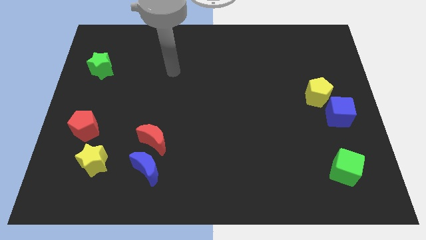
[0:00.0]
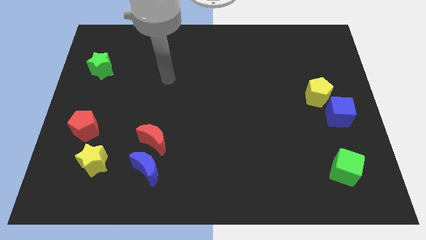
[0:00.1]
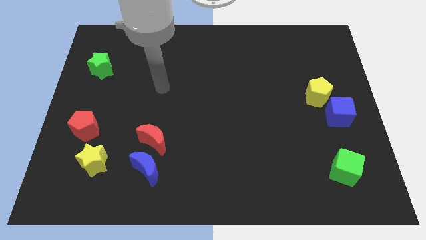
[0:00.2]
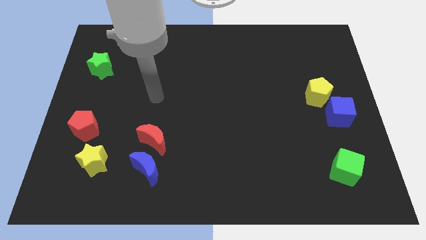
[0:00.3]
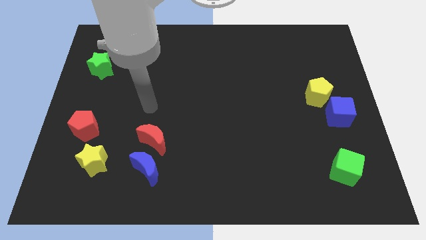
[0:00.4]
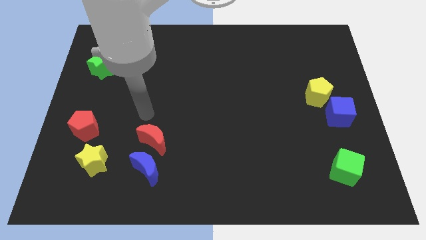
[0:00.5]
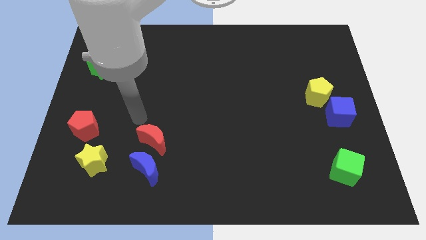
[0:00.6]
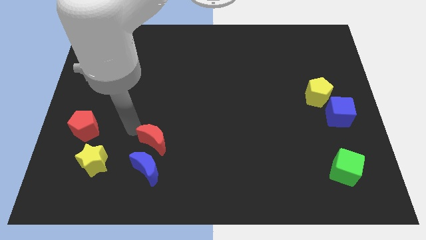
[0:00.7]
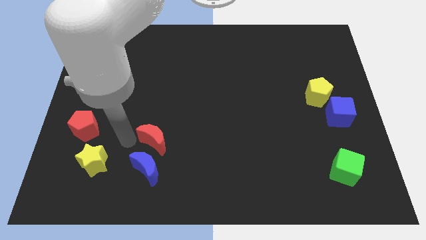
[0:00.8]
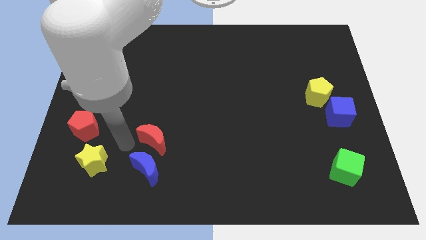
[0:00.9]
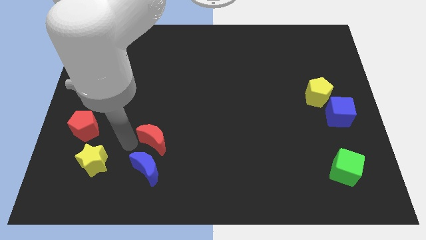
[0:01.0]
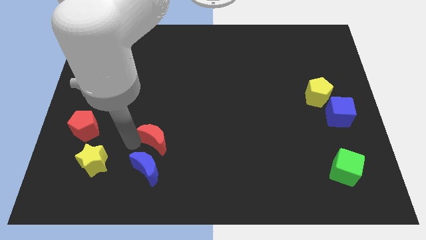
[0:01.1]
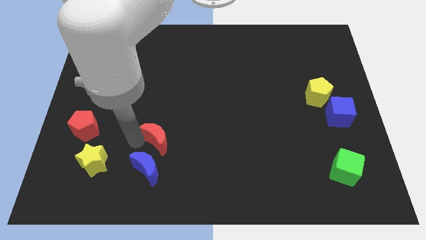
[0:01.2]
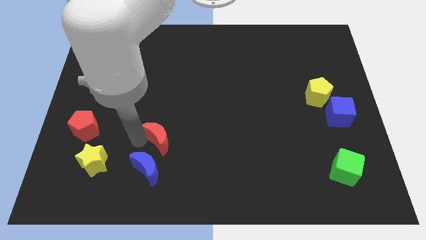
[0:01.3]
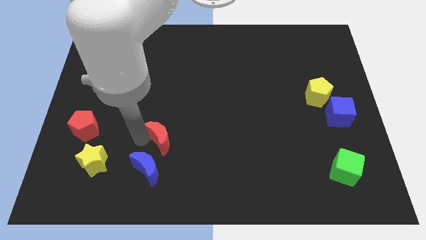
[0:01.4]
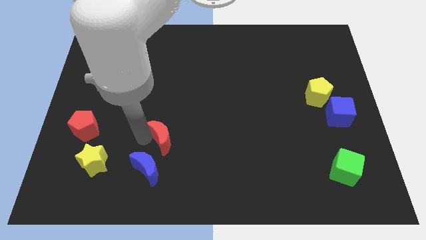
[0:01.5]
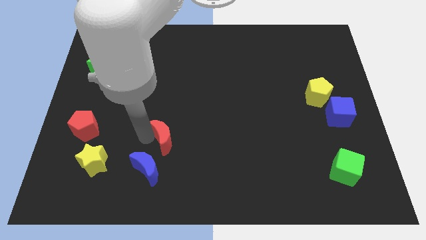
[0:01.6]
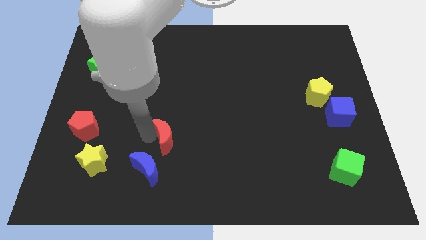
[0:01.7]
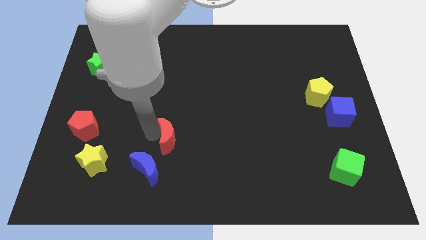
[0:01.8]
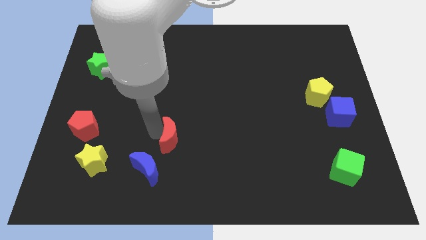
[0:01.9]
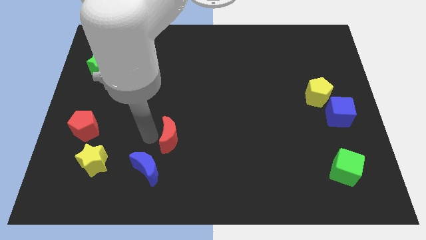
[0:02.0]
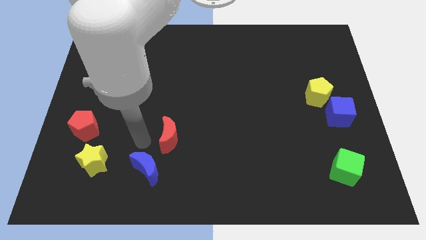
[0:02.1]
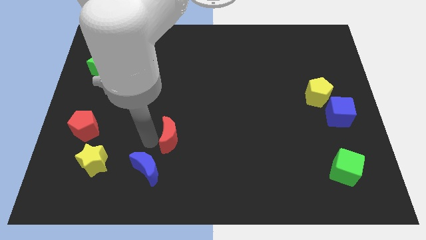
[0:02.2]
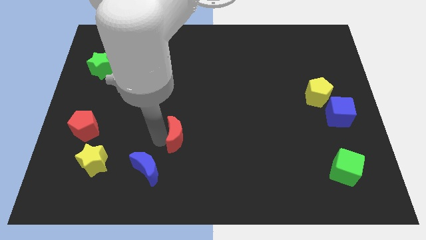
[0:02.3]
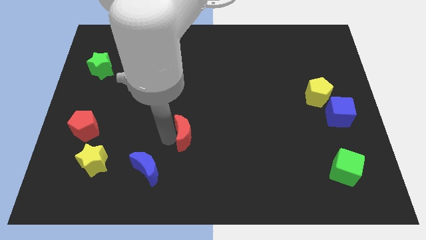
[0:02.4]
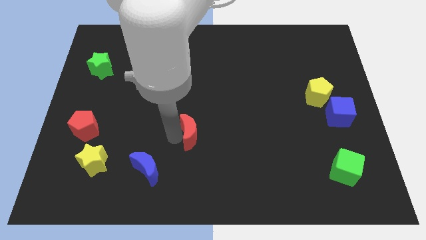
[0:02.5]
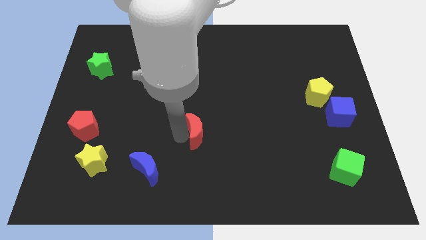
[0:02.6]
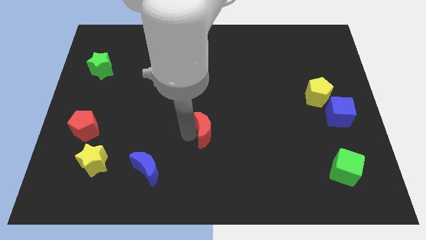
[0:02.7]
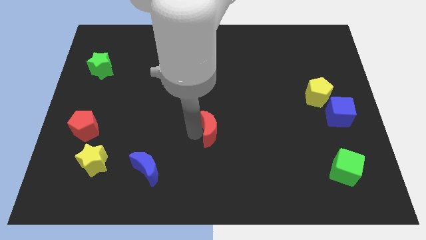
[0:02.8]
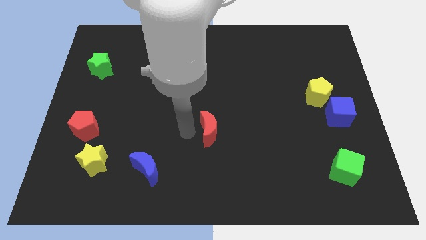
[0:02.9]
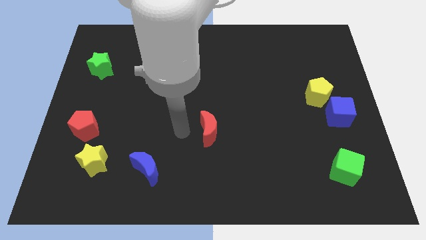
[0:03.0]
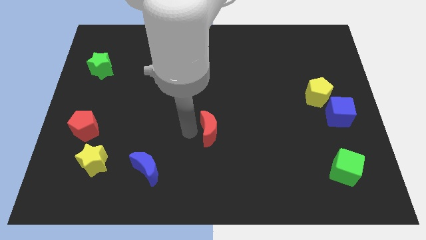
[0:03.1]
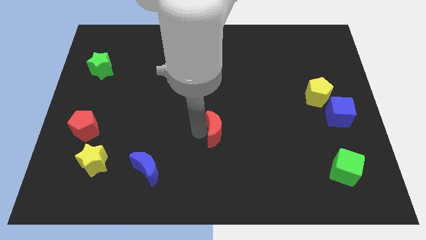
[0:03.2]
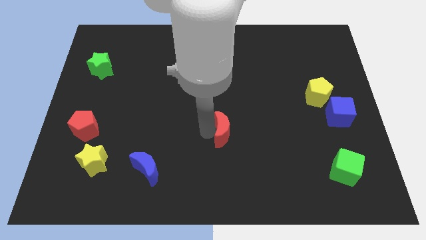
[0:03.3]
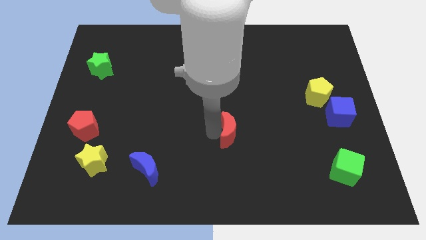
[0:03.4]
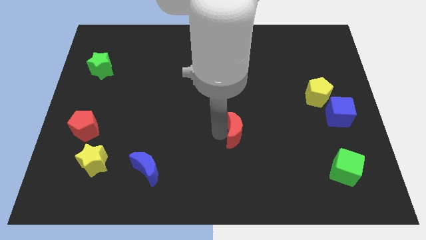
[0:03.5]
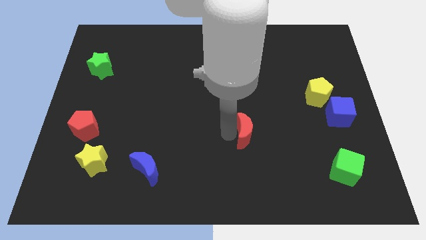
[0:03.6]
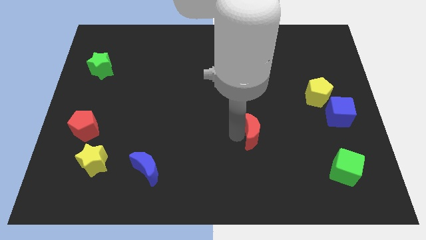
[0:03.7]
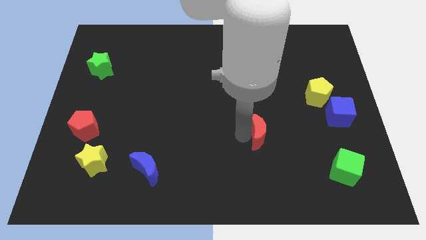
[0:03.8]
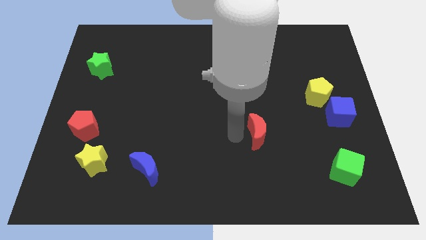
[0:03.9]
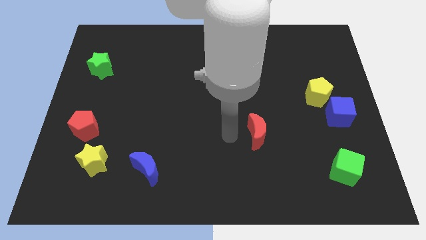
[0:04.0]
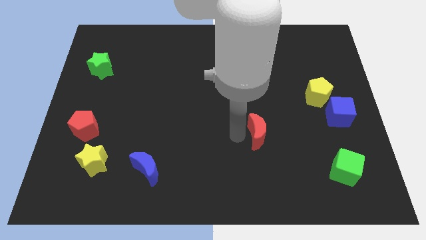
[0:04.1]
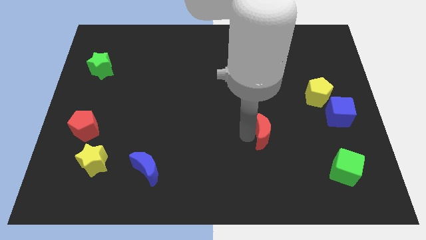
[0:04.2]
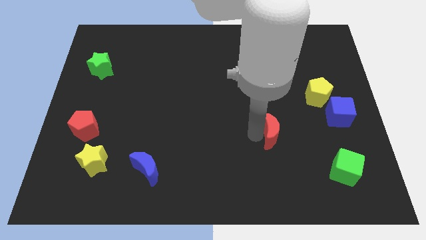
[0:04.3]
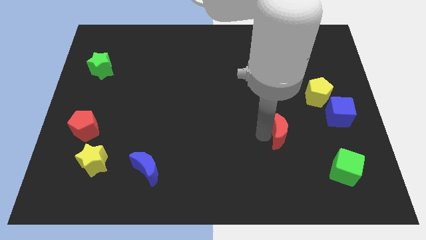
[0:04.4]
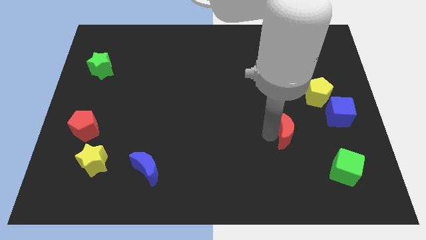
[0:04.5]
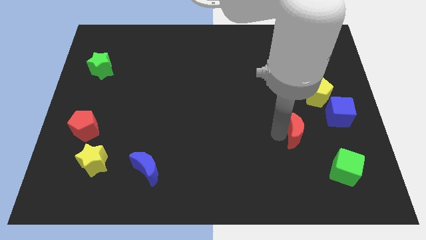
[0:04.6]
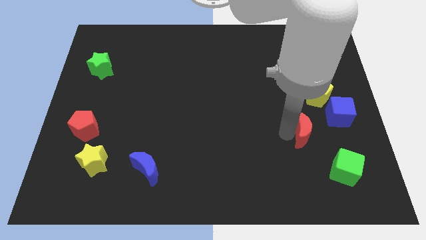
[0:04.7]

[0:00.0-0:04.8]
push the red moon diagonally down and to the left of the blue cube

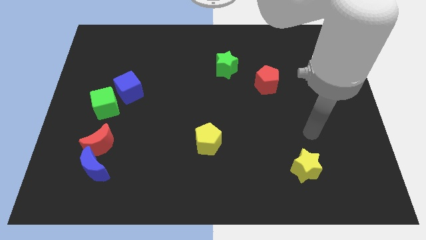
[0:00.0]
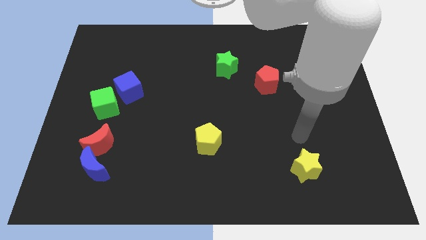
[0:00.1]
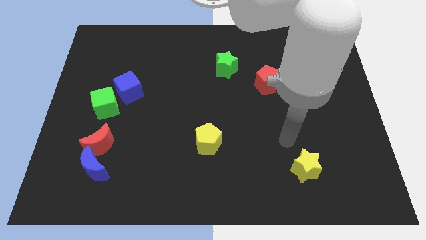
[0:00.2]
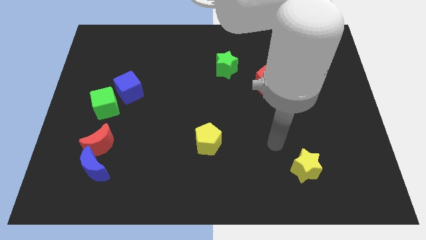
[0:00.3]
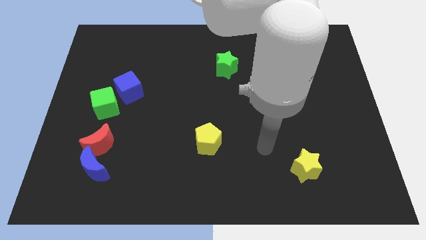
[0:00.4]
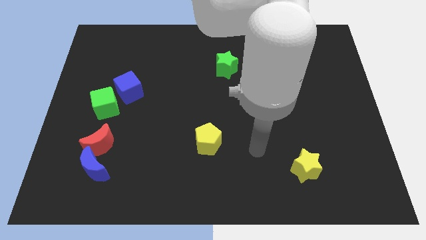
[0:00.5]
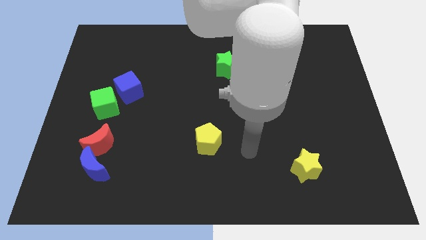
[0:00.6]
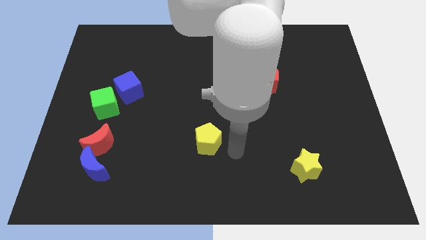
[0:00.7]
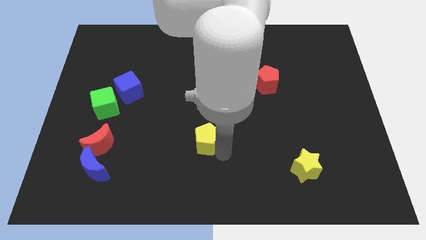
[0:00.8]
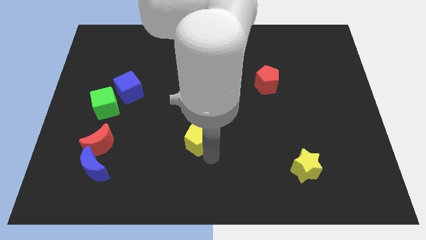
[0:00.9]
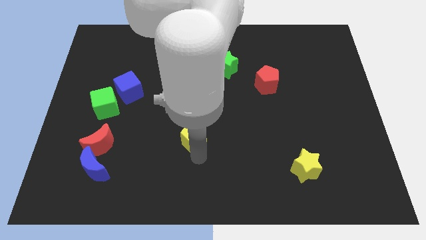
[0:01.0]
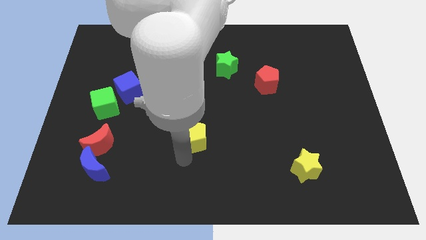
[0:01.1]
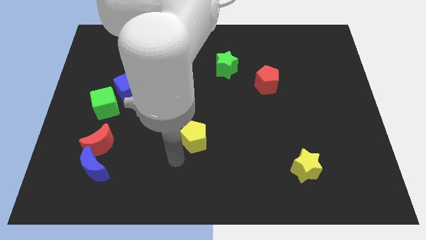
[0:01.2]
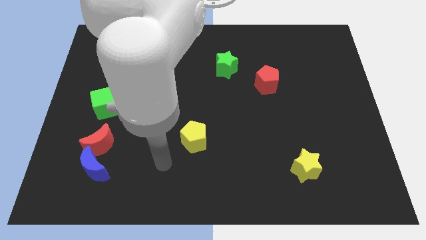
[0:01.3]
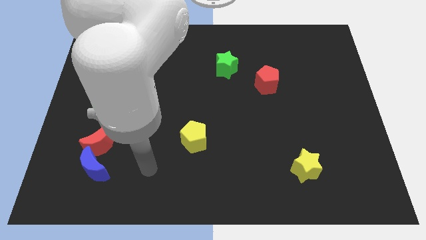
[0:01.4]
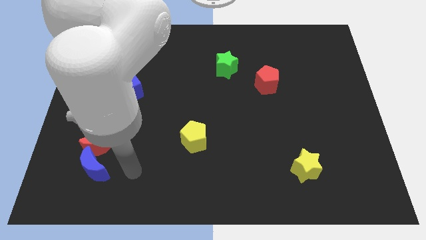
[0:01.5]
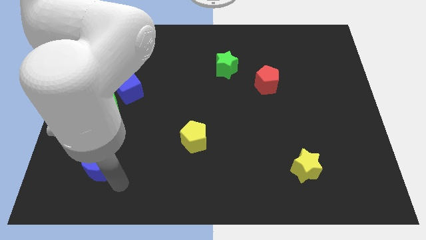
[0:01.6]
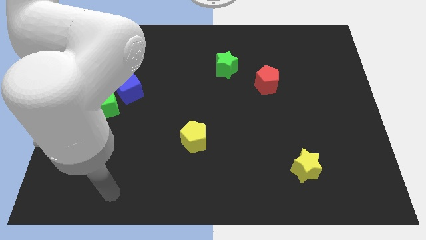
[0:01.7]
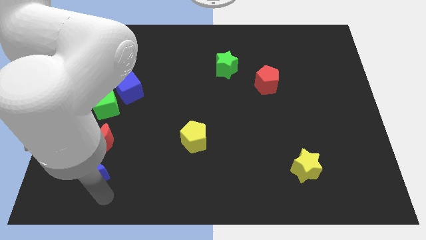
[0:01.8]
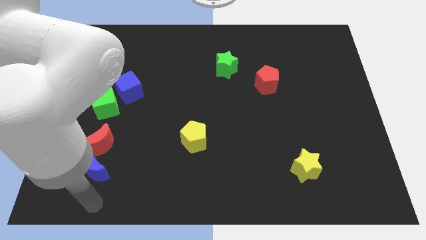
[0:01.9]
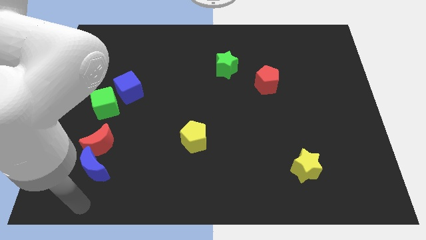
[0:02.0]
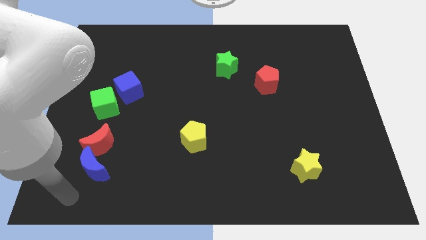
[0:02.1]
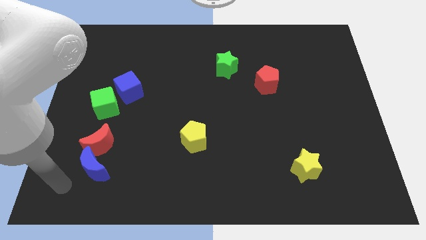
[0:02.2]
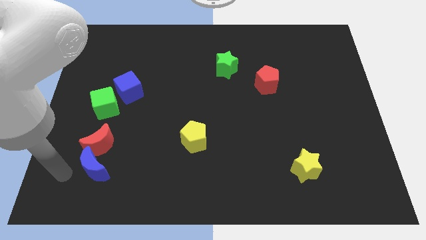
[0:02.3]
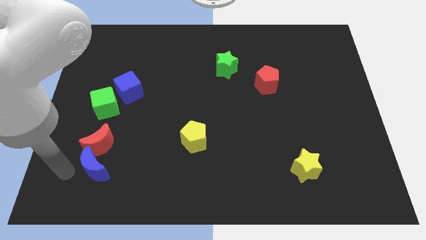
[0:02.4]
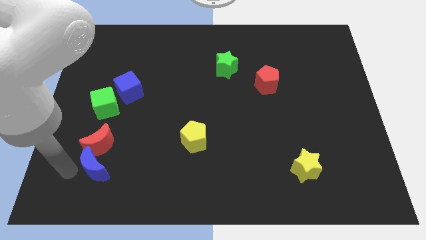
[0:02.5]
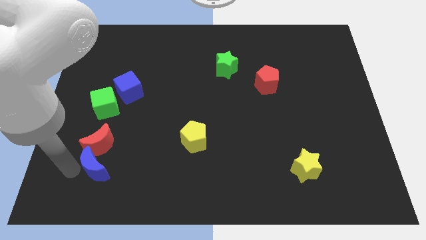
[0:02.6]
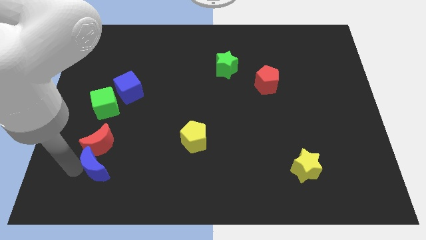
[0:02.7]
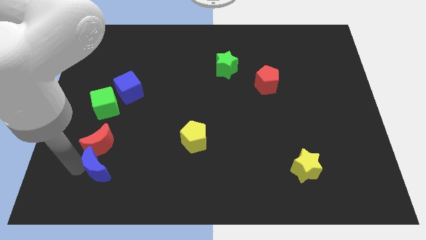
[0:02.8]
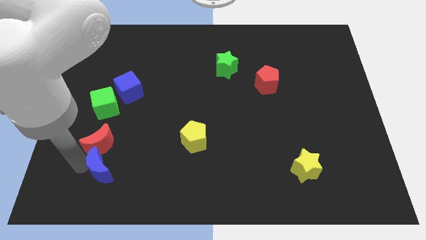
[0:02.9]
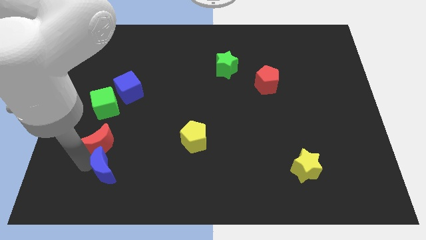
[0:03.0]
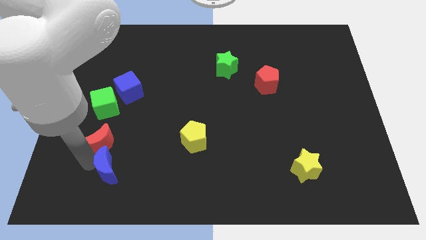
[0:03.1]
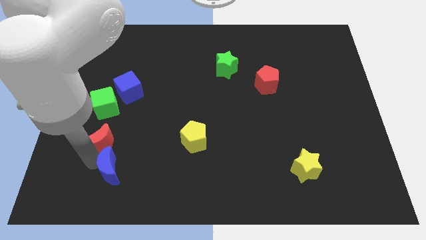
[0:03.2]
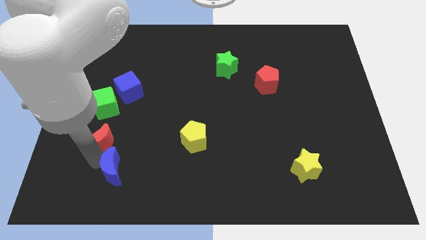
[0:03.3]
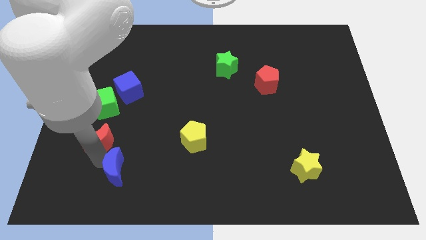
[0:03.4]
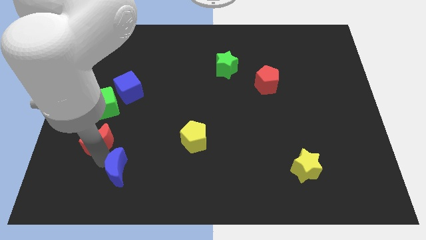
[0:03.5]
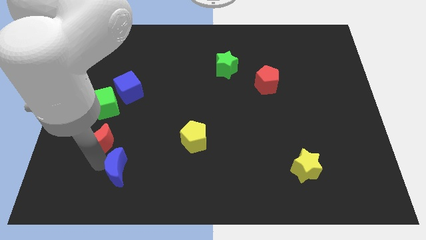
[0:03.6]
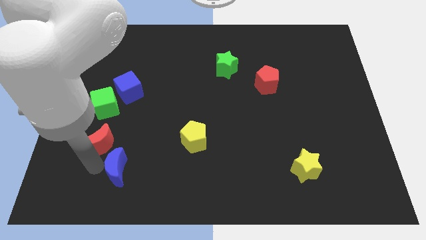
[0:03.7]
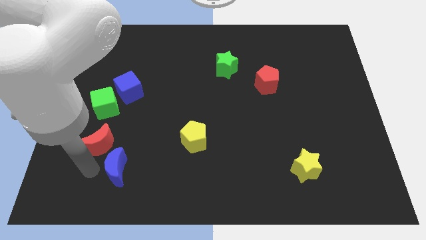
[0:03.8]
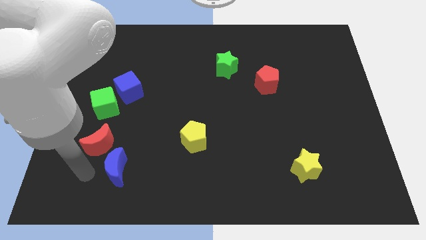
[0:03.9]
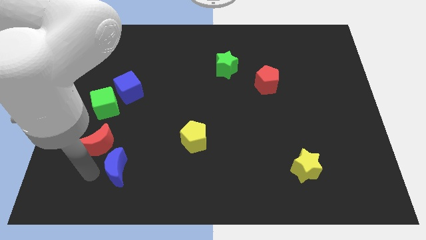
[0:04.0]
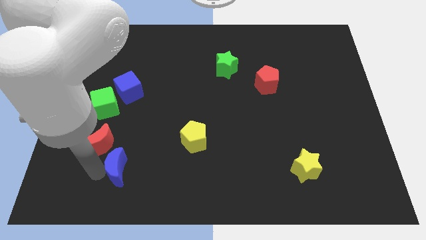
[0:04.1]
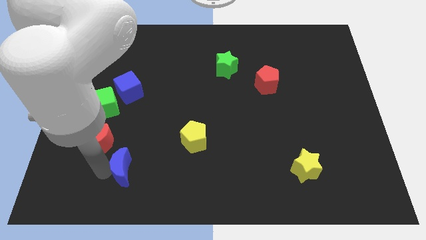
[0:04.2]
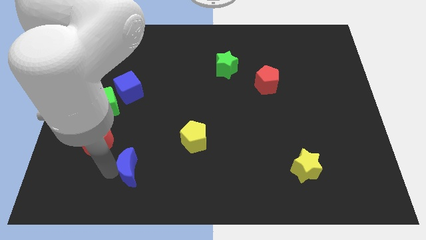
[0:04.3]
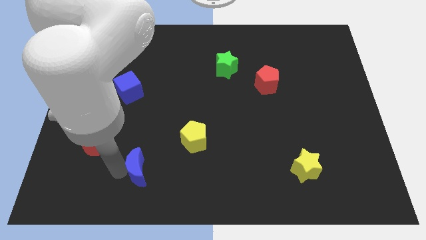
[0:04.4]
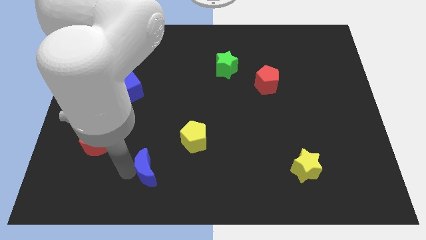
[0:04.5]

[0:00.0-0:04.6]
move the blue moon to the bottom left of the yellow pentagon
